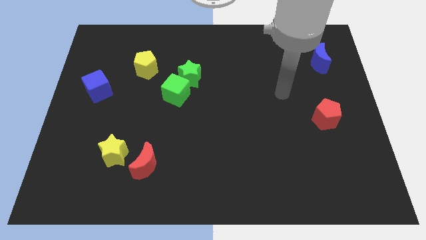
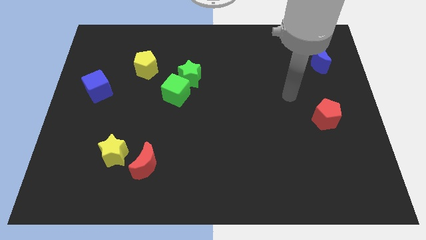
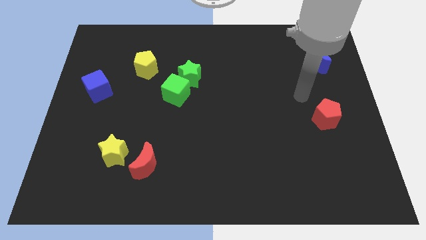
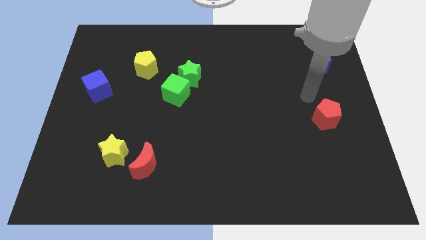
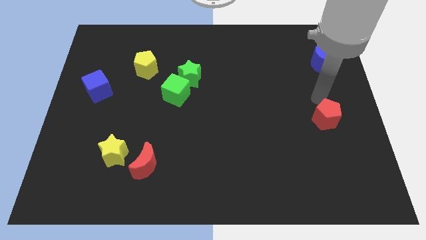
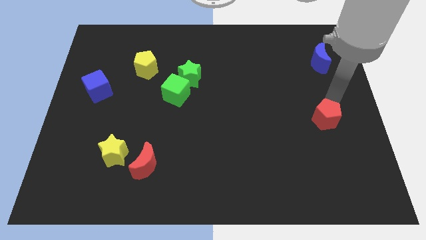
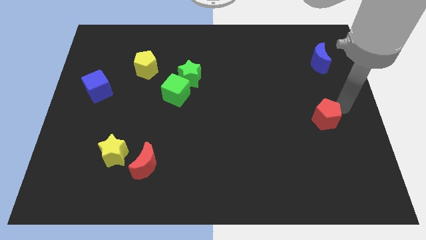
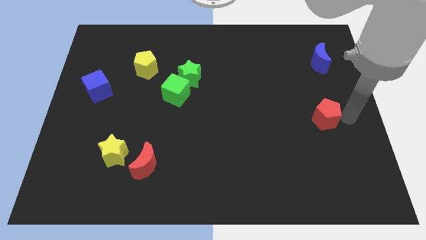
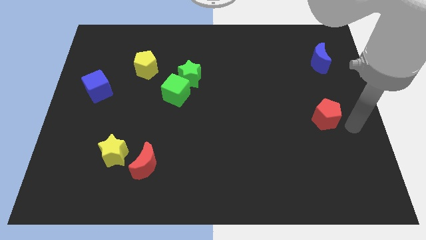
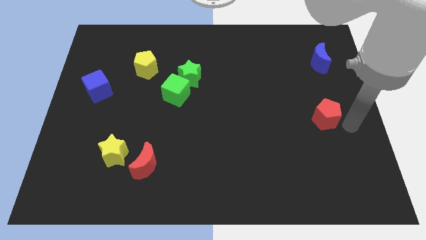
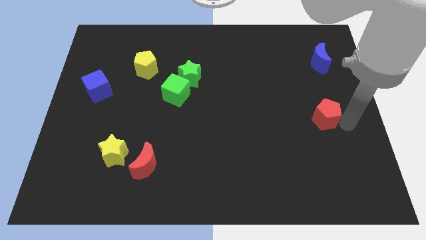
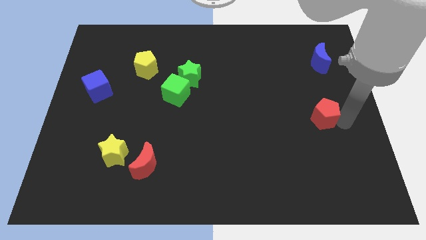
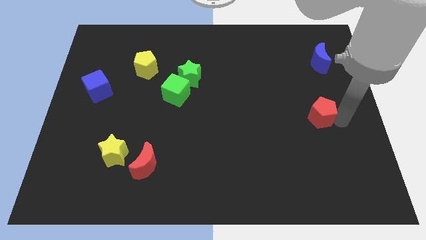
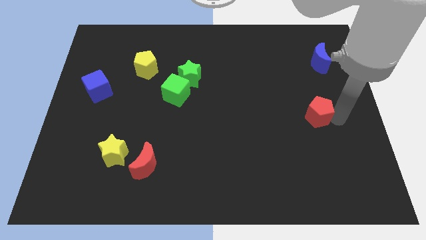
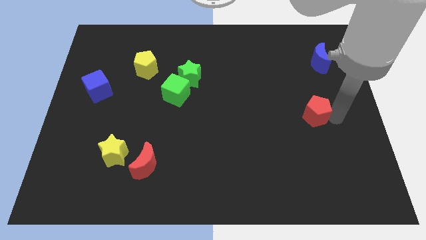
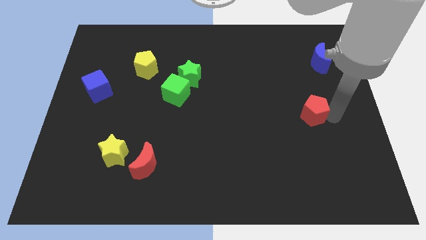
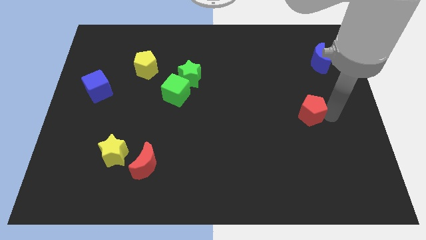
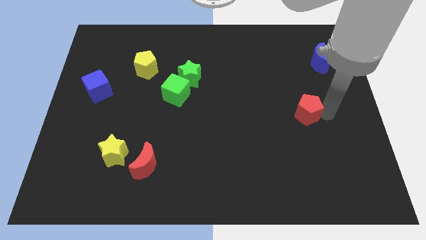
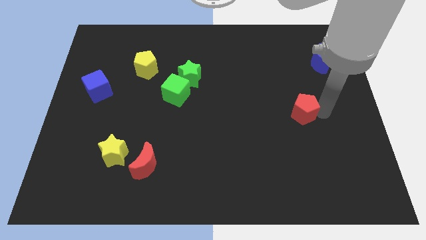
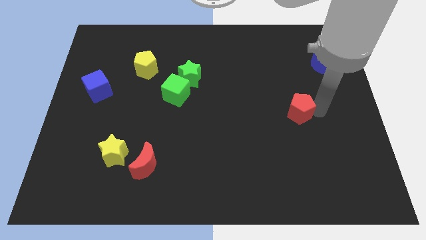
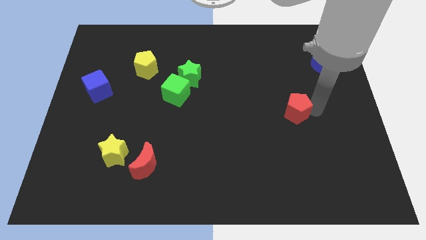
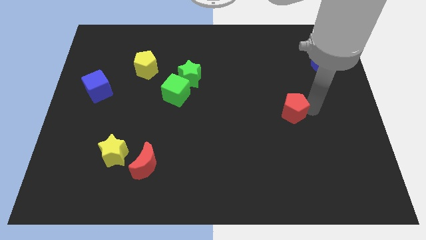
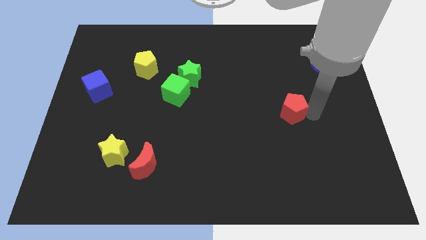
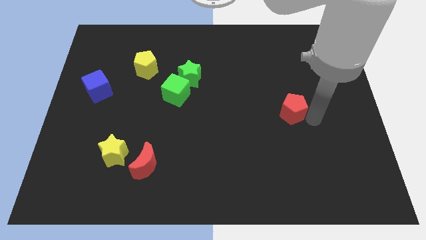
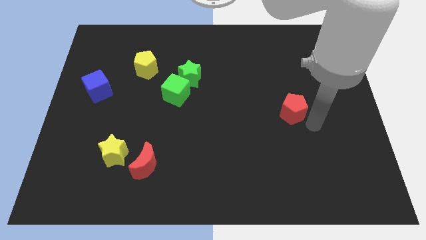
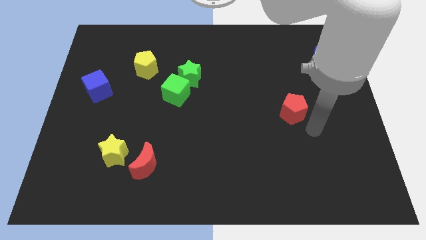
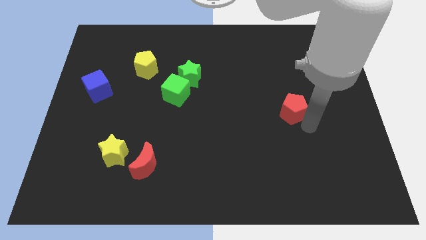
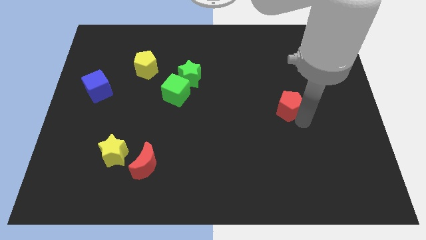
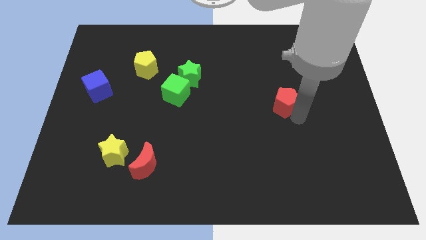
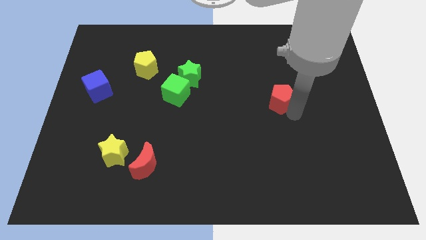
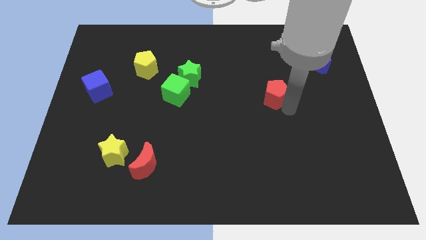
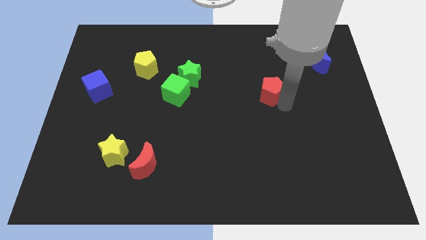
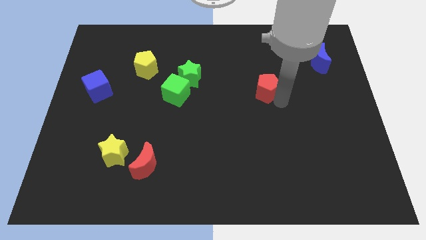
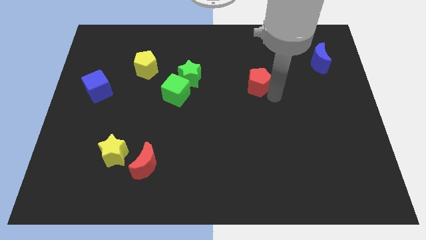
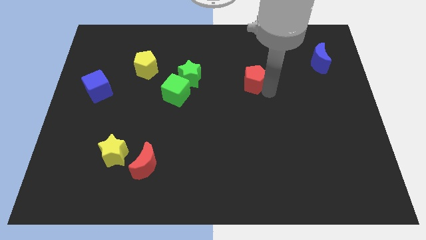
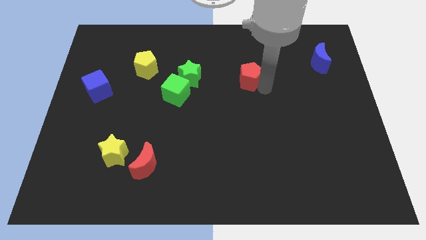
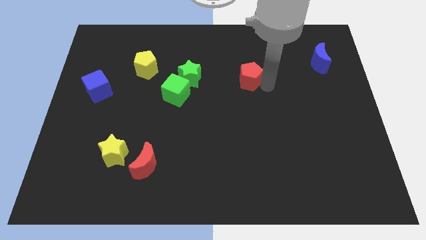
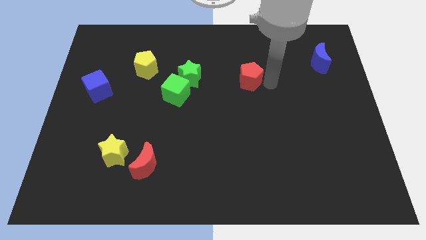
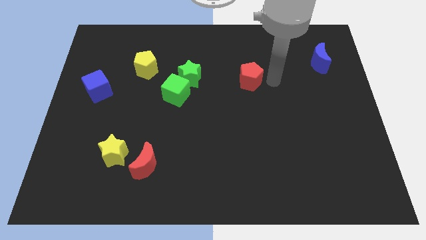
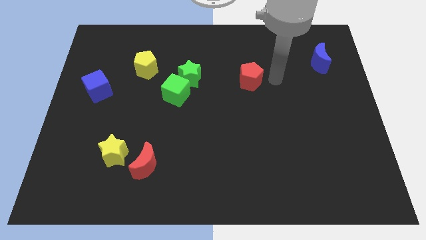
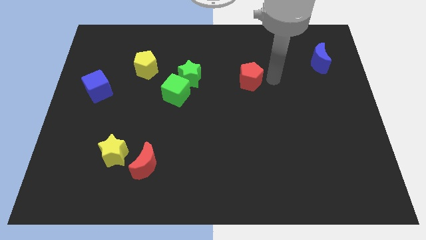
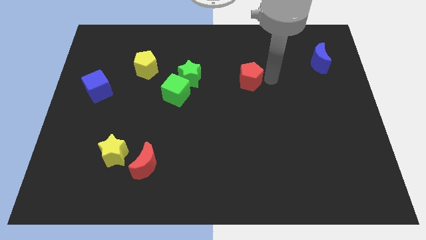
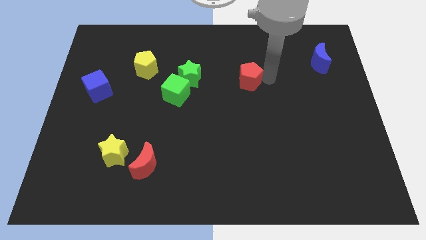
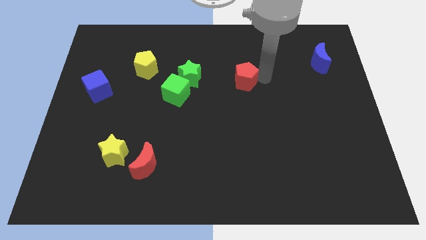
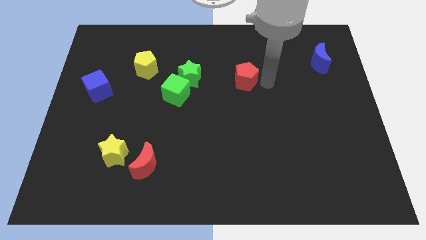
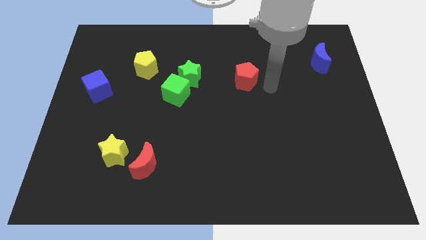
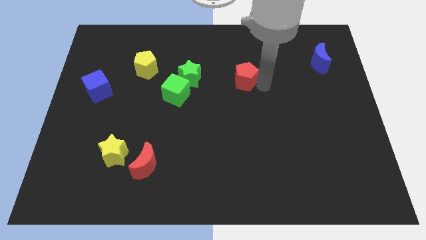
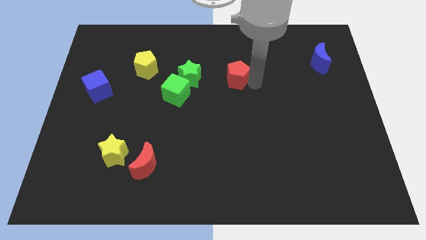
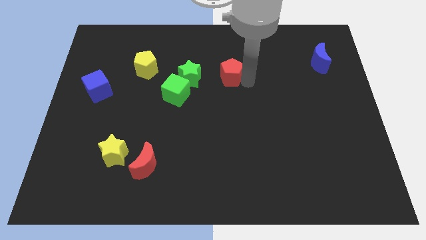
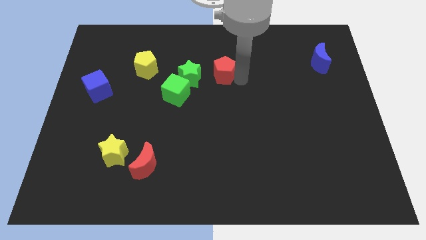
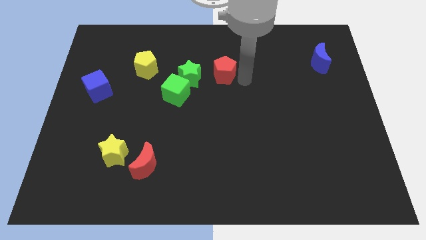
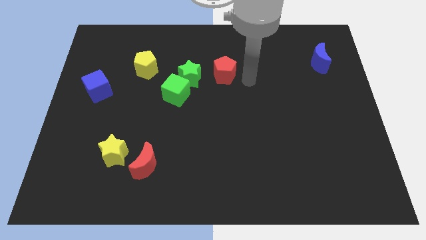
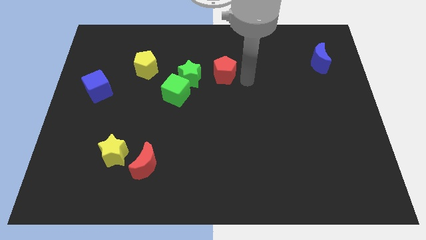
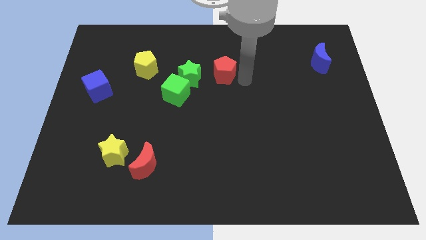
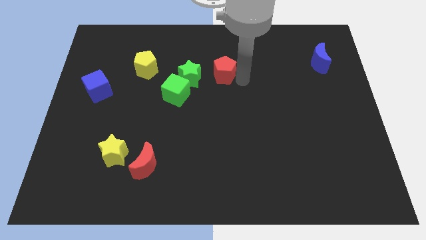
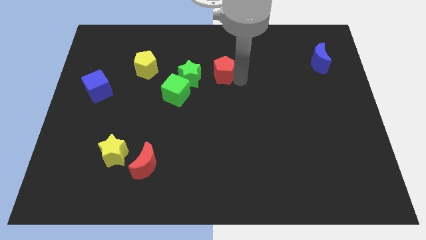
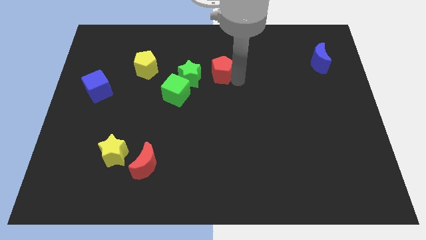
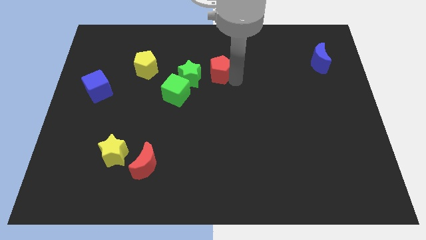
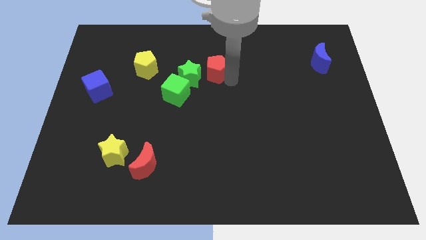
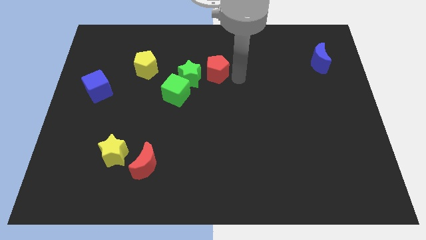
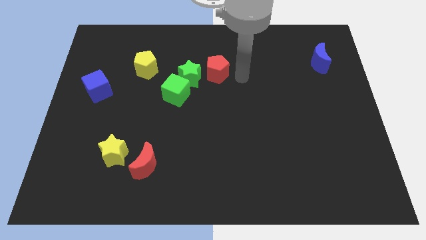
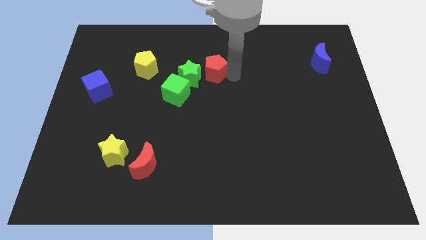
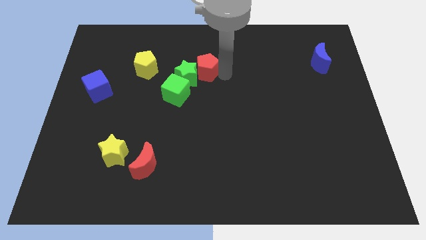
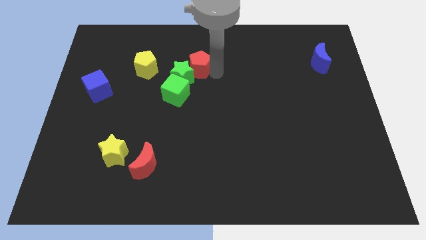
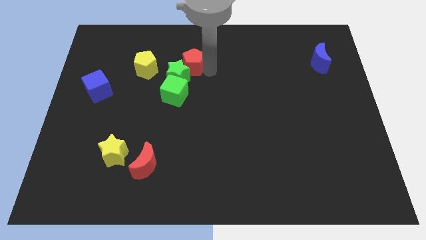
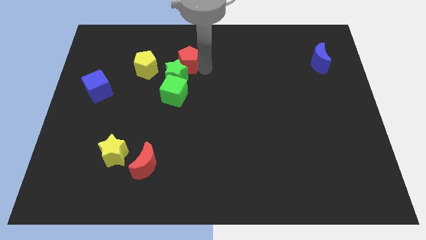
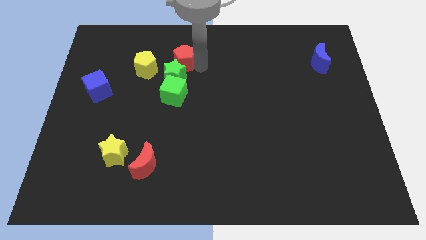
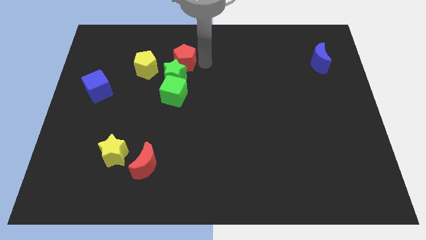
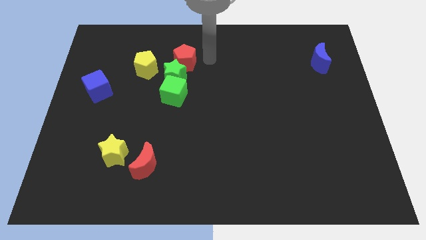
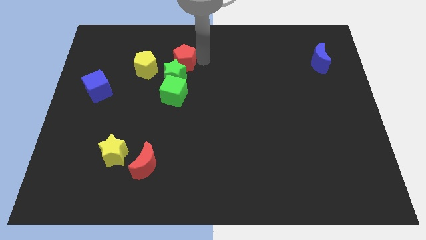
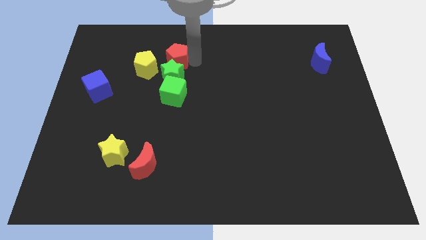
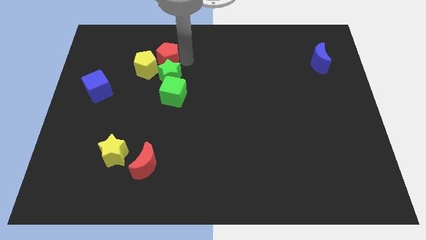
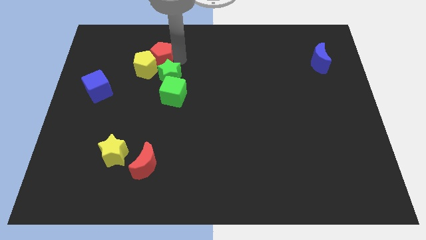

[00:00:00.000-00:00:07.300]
put the red pentagon next to the yellow pentagon
